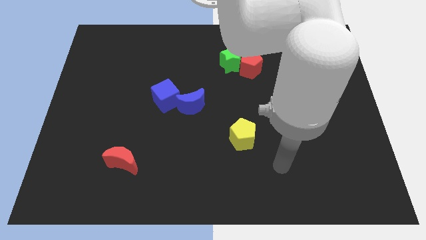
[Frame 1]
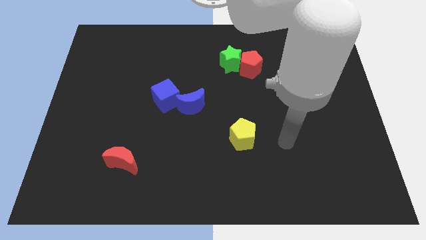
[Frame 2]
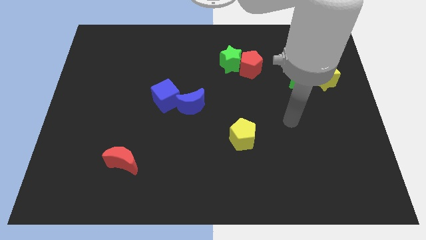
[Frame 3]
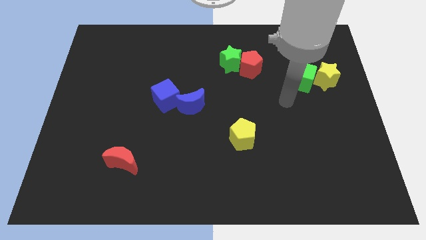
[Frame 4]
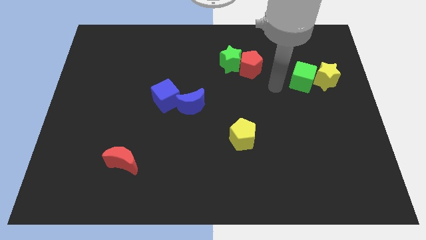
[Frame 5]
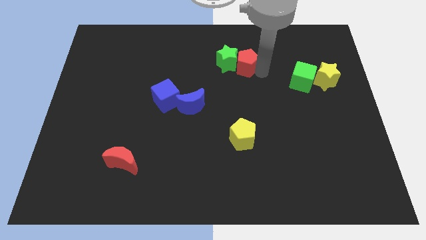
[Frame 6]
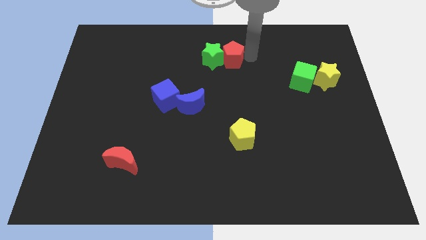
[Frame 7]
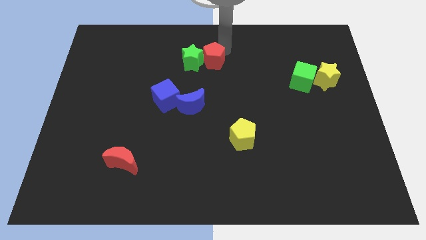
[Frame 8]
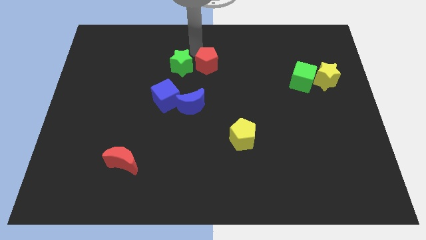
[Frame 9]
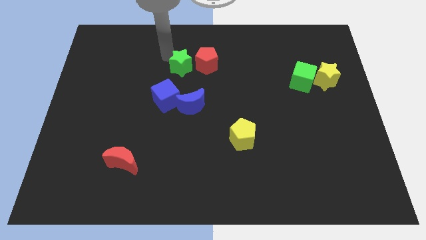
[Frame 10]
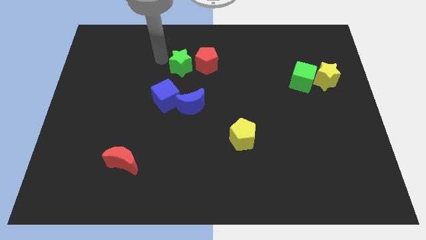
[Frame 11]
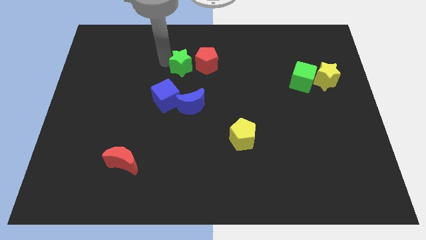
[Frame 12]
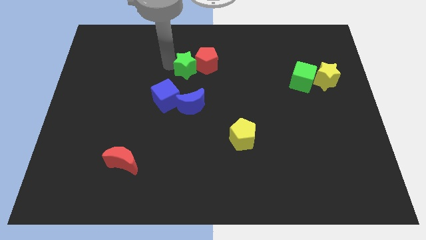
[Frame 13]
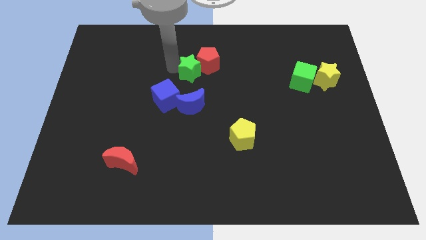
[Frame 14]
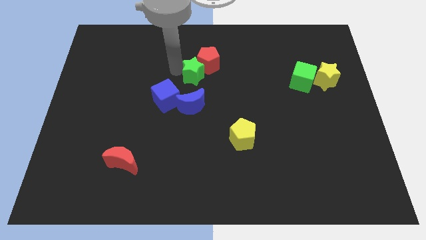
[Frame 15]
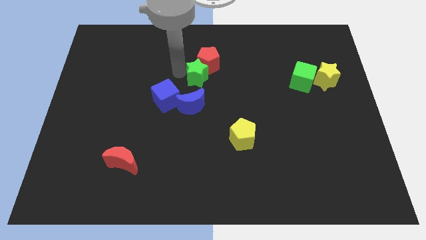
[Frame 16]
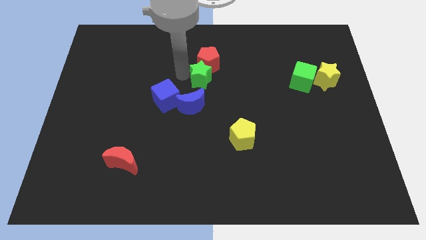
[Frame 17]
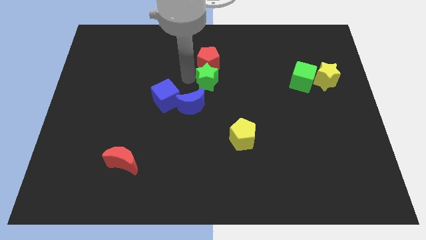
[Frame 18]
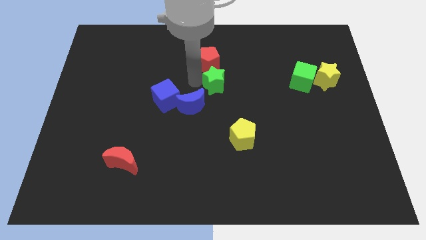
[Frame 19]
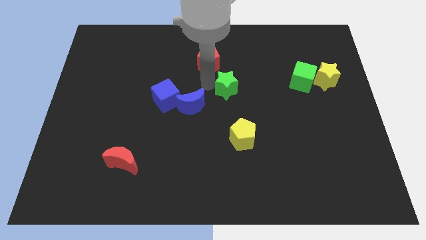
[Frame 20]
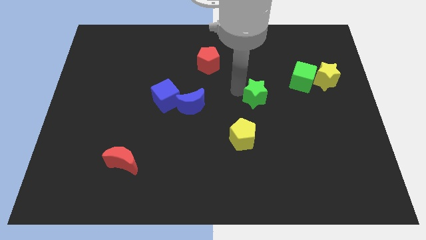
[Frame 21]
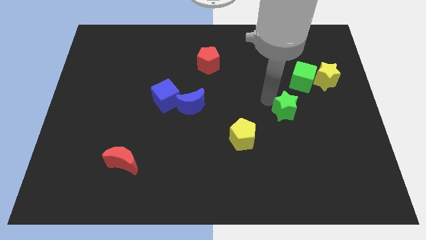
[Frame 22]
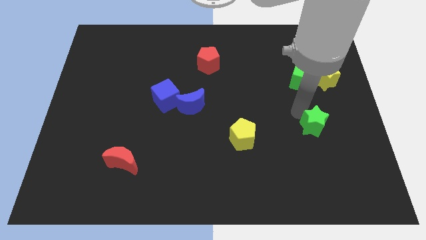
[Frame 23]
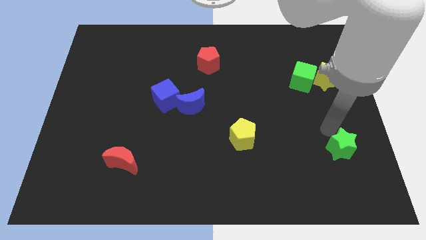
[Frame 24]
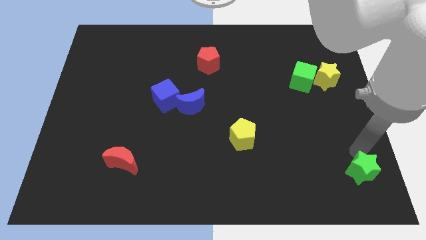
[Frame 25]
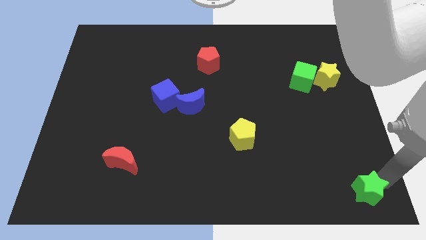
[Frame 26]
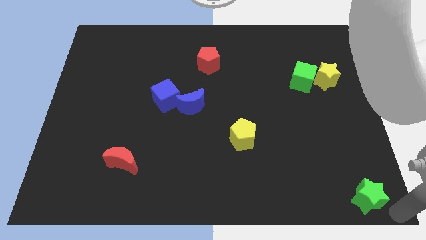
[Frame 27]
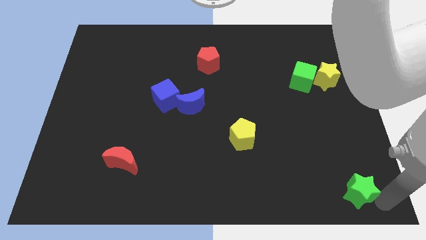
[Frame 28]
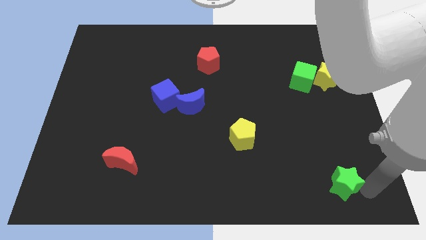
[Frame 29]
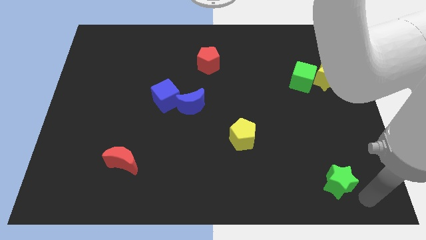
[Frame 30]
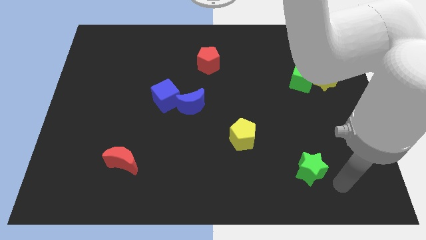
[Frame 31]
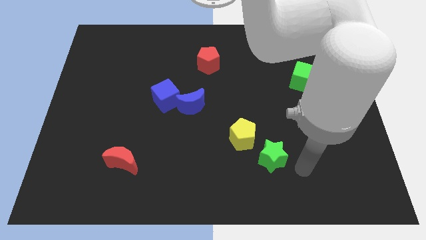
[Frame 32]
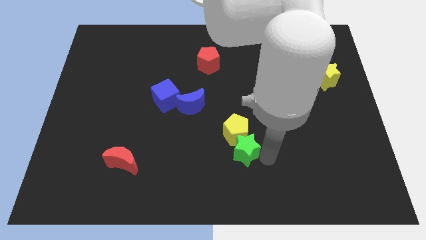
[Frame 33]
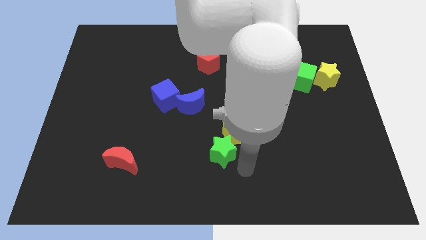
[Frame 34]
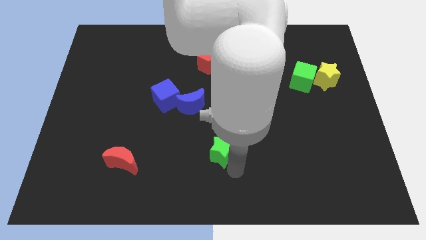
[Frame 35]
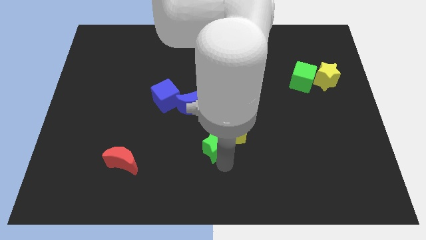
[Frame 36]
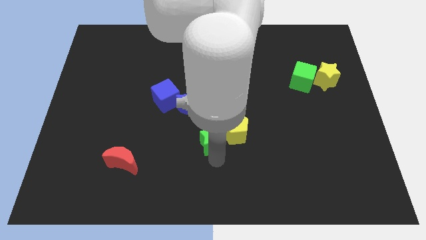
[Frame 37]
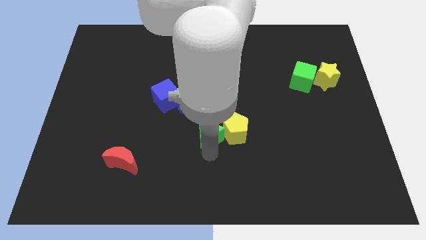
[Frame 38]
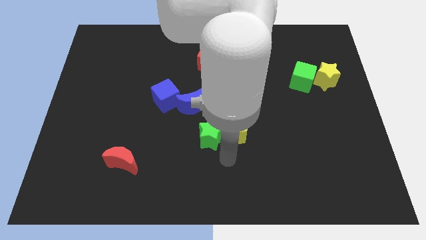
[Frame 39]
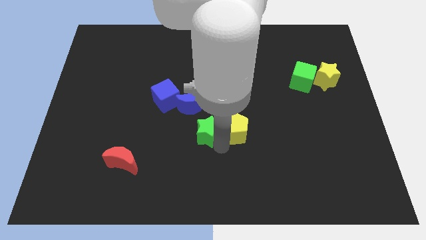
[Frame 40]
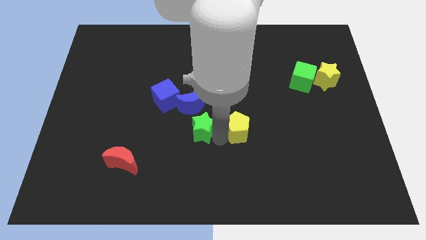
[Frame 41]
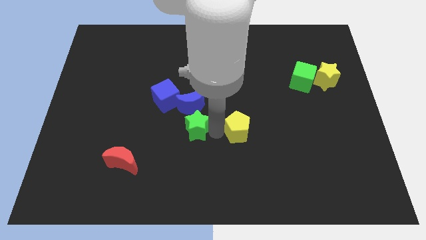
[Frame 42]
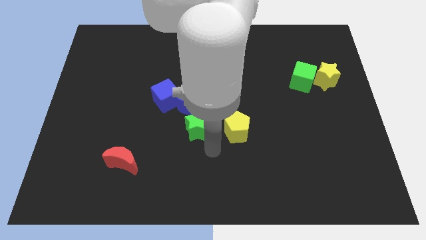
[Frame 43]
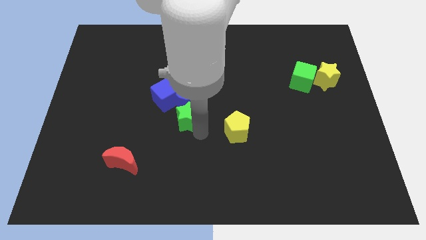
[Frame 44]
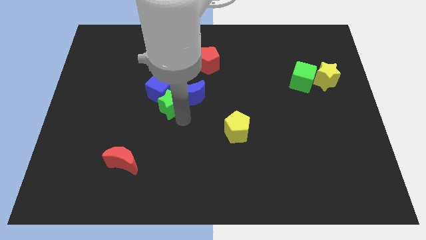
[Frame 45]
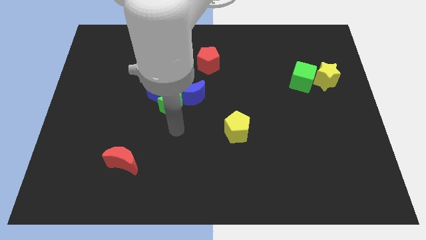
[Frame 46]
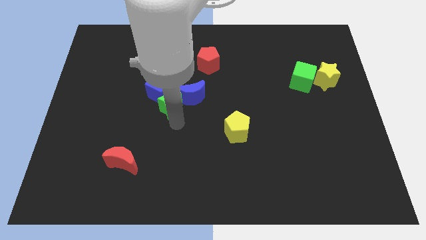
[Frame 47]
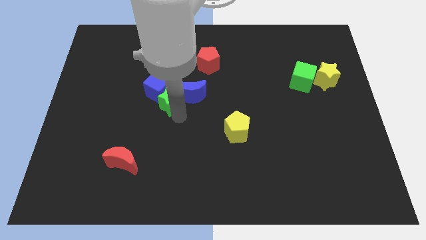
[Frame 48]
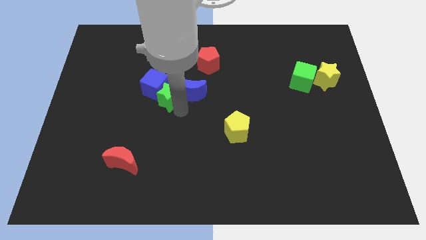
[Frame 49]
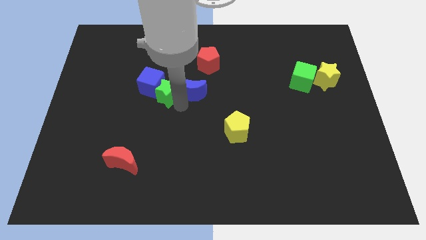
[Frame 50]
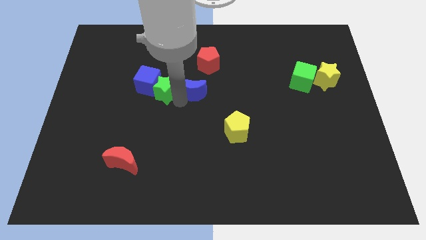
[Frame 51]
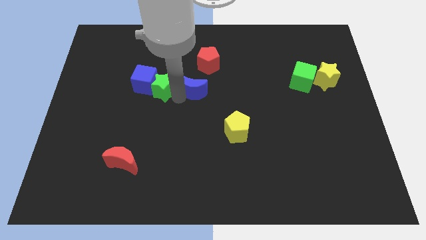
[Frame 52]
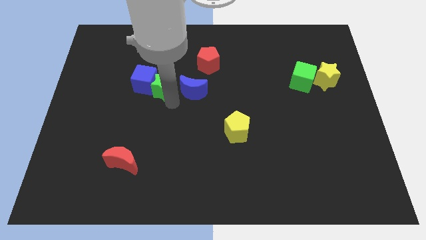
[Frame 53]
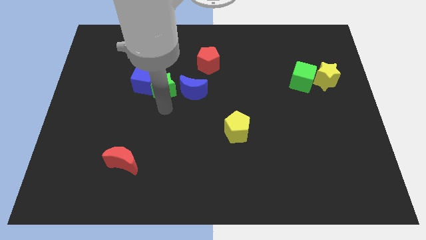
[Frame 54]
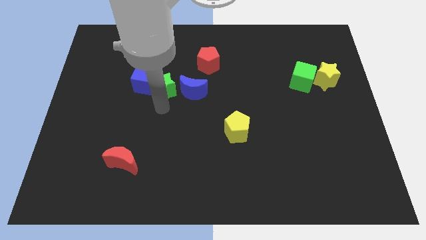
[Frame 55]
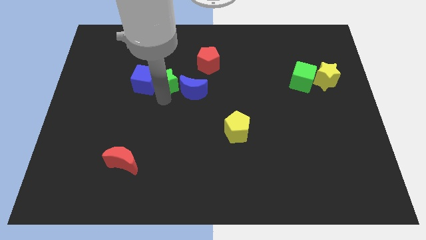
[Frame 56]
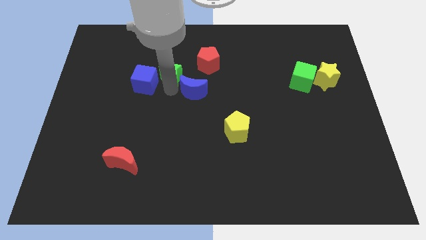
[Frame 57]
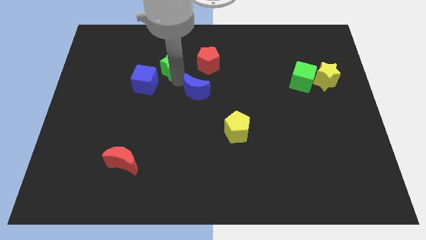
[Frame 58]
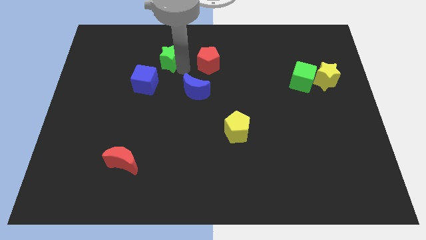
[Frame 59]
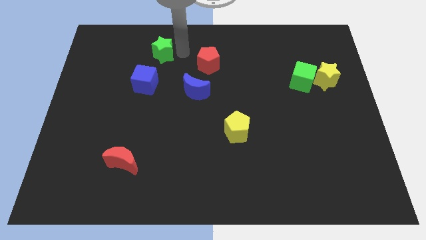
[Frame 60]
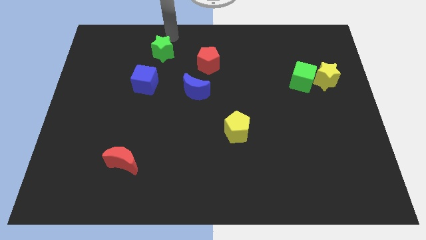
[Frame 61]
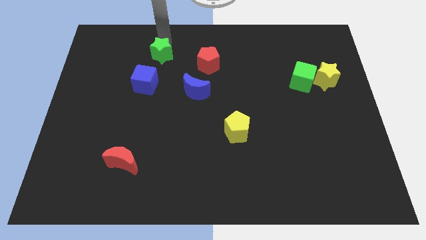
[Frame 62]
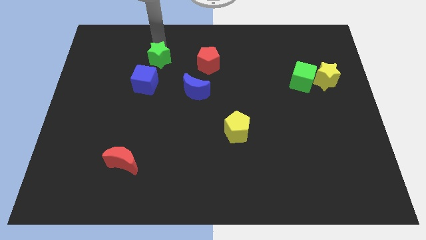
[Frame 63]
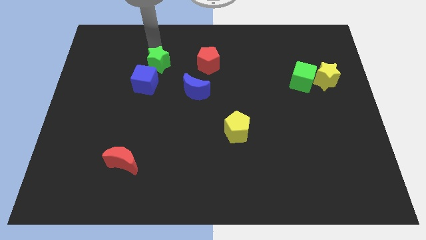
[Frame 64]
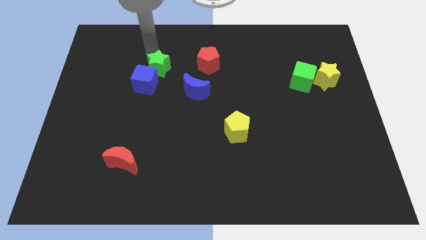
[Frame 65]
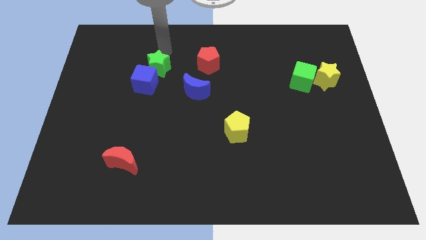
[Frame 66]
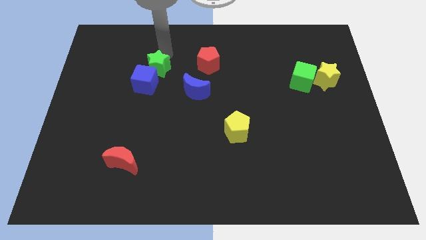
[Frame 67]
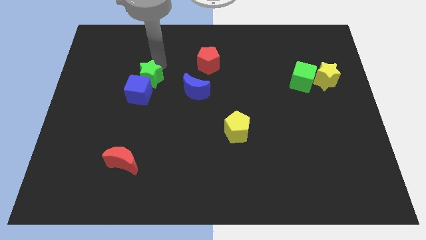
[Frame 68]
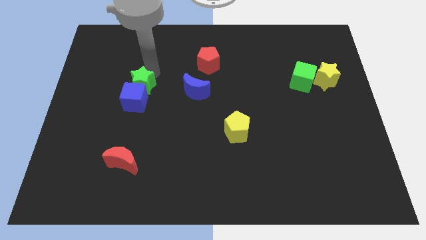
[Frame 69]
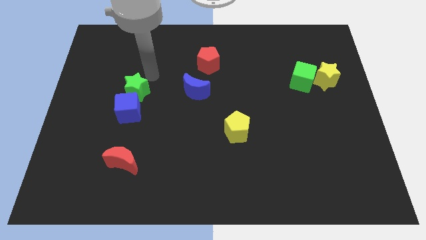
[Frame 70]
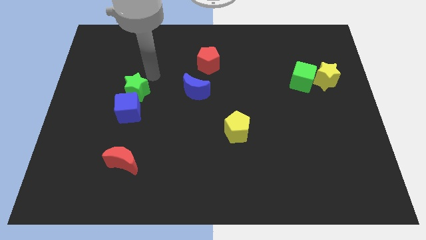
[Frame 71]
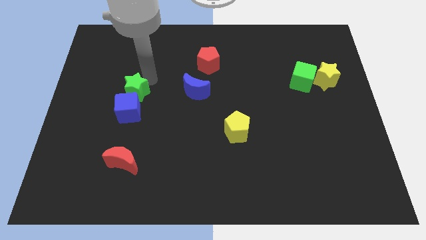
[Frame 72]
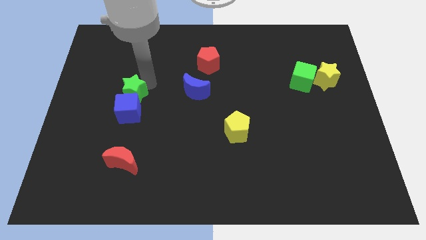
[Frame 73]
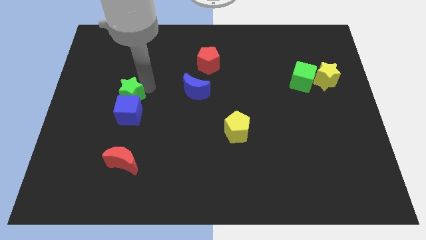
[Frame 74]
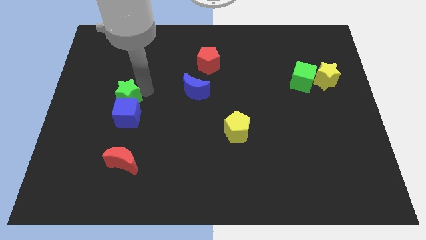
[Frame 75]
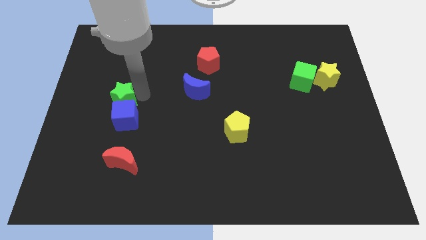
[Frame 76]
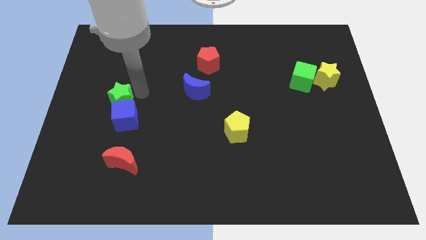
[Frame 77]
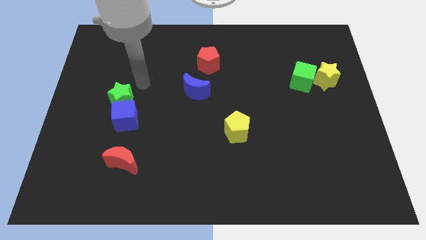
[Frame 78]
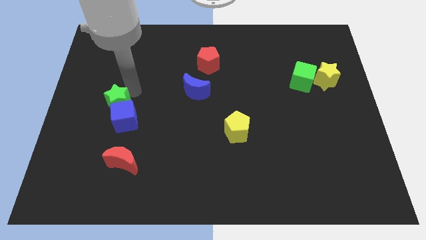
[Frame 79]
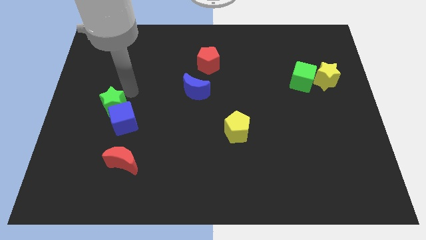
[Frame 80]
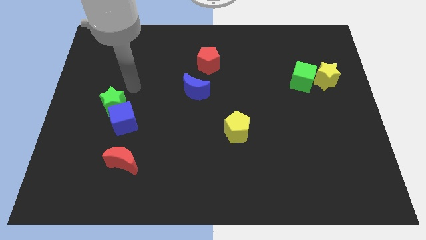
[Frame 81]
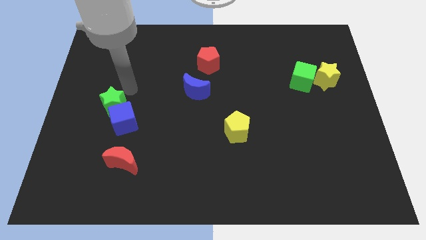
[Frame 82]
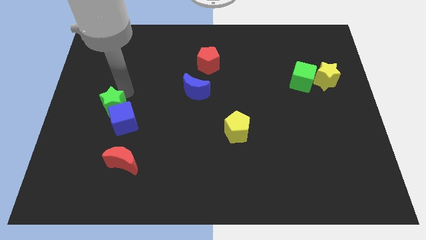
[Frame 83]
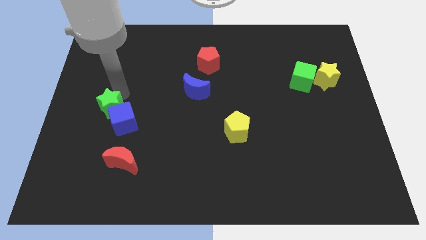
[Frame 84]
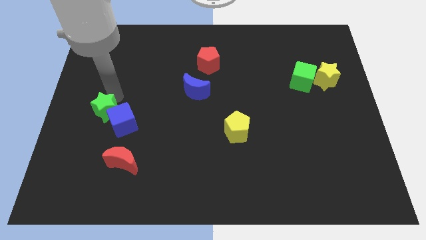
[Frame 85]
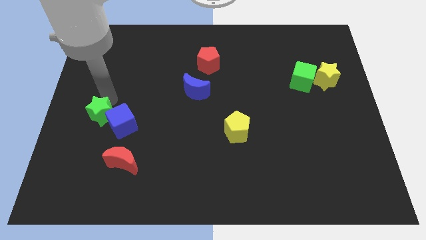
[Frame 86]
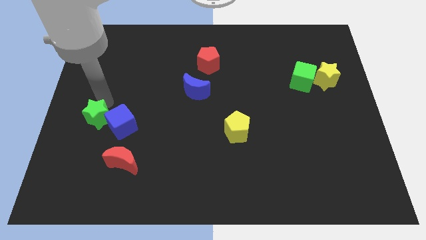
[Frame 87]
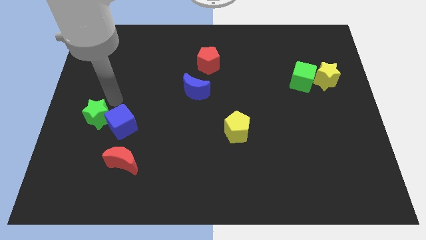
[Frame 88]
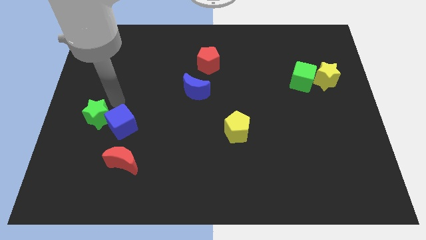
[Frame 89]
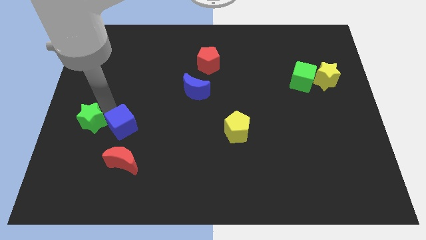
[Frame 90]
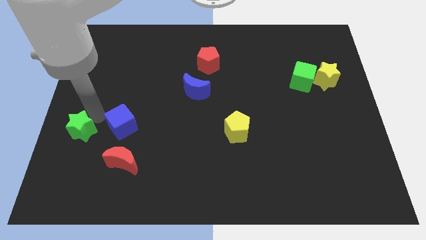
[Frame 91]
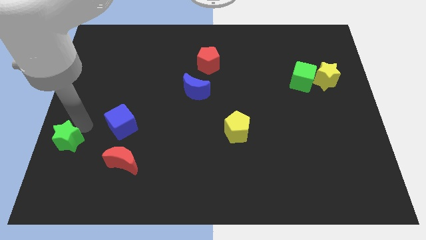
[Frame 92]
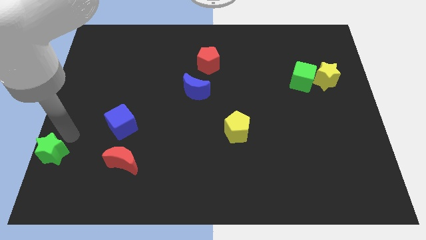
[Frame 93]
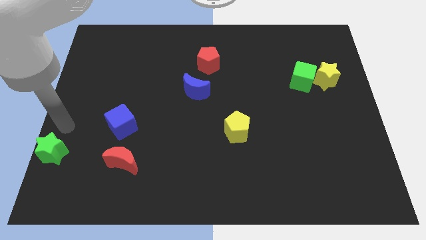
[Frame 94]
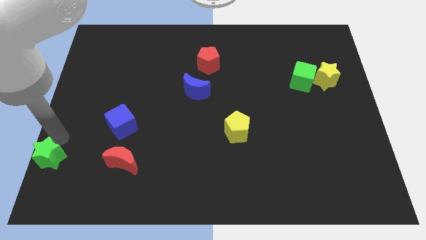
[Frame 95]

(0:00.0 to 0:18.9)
push the green star to the bottom left of the board
